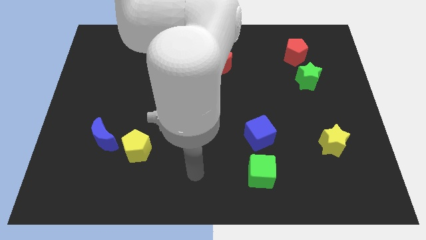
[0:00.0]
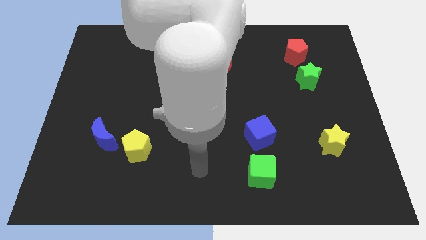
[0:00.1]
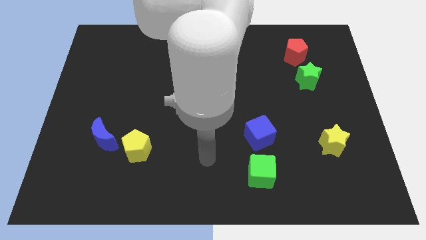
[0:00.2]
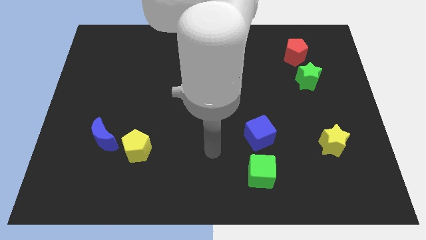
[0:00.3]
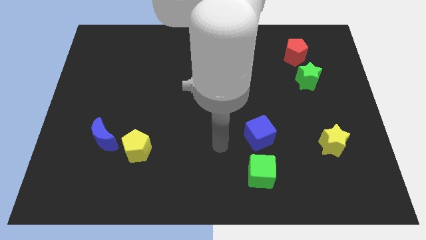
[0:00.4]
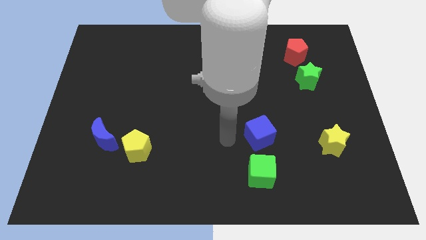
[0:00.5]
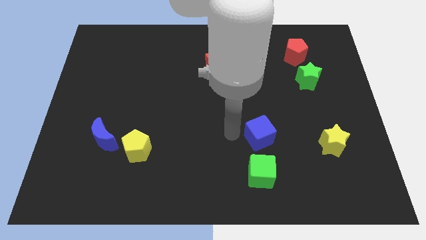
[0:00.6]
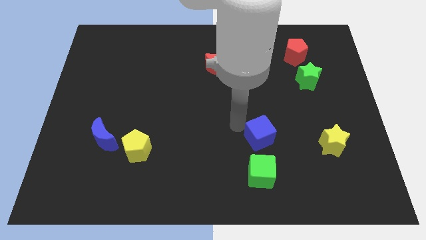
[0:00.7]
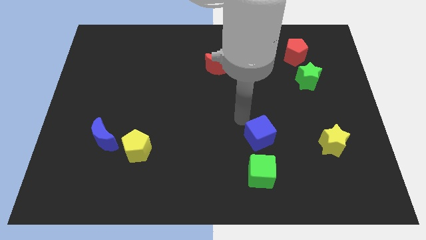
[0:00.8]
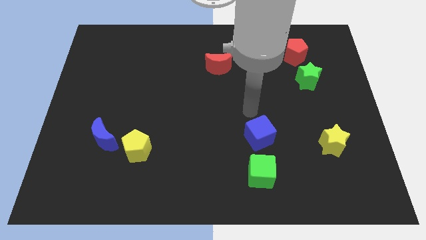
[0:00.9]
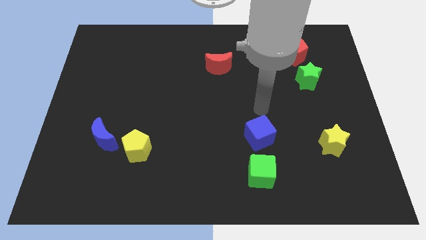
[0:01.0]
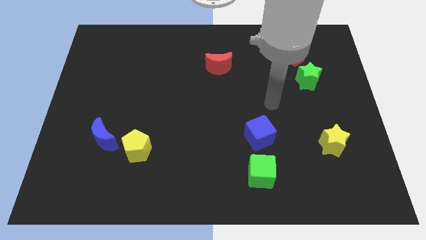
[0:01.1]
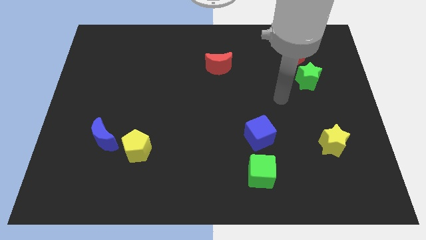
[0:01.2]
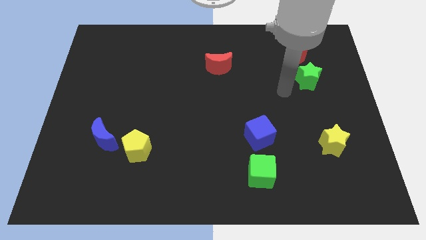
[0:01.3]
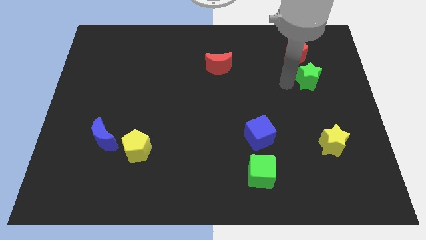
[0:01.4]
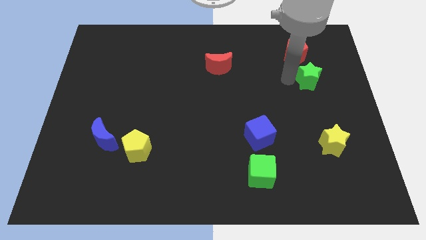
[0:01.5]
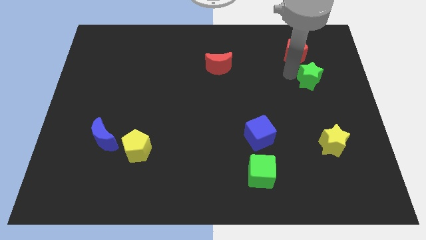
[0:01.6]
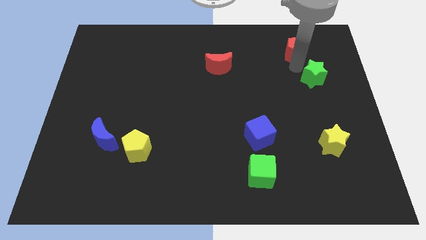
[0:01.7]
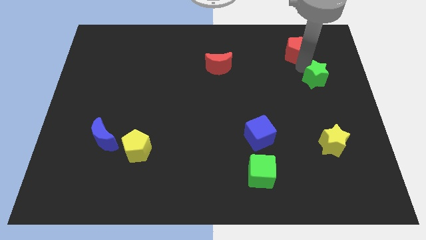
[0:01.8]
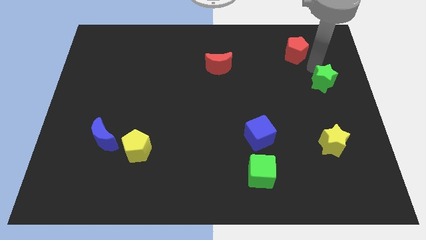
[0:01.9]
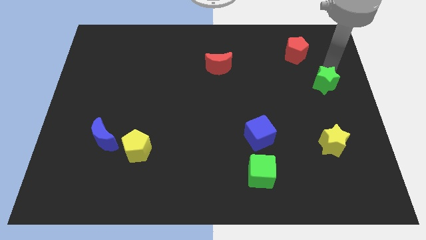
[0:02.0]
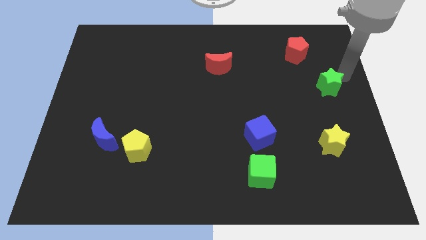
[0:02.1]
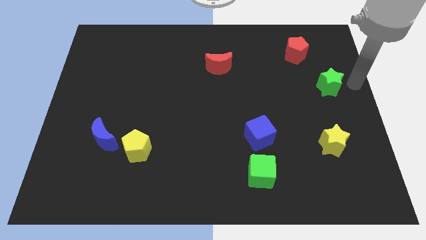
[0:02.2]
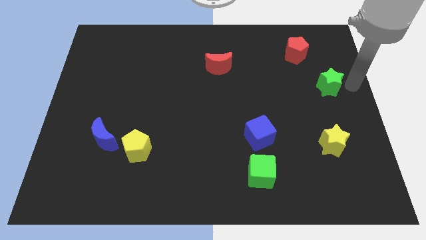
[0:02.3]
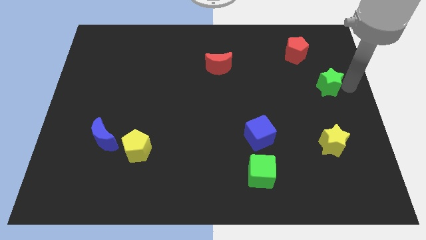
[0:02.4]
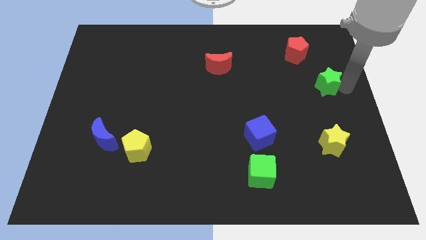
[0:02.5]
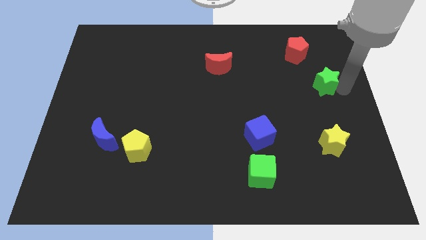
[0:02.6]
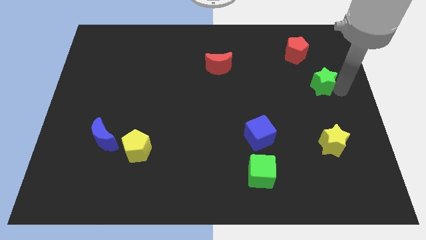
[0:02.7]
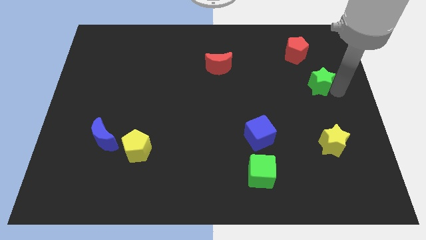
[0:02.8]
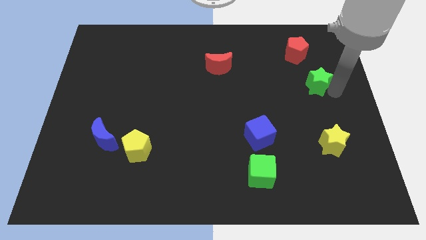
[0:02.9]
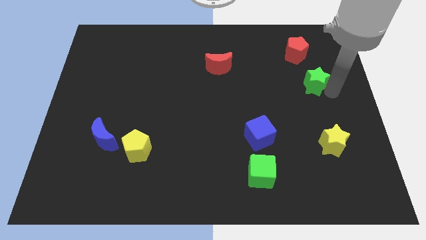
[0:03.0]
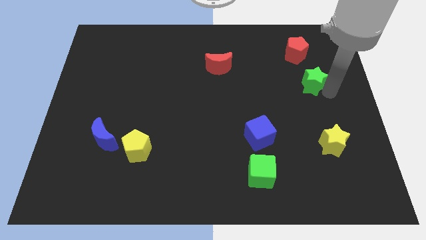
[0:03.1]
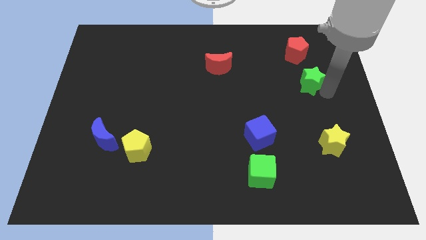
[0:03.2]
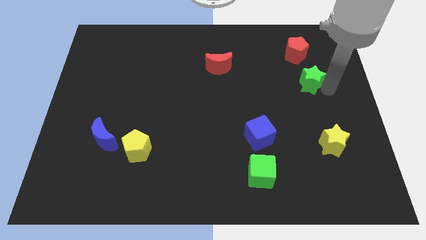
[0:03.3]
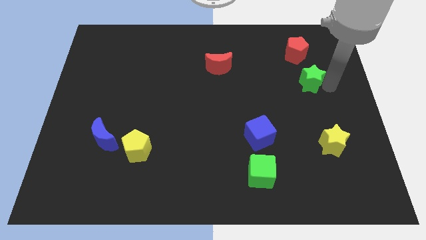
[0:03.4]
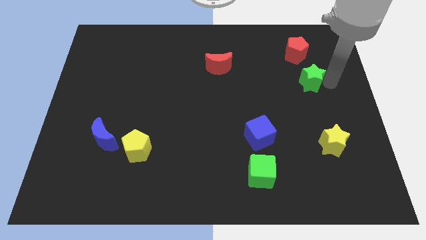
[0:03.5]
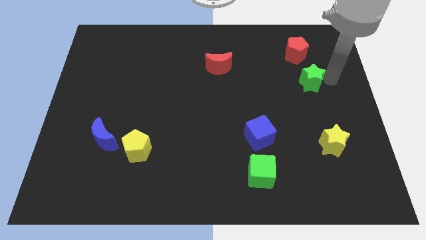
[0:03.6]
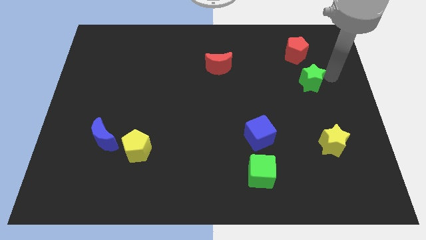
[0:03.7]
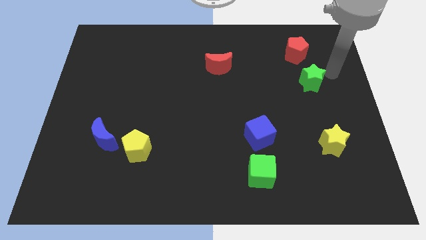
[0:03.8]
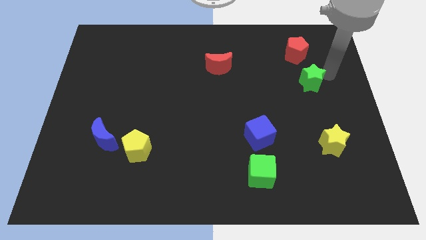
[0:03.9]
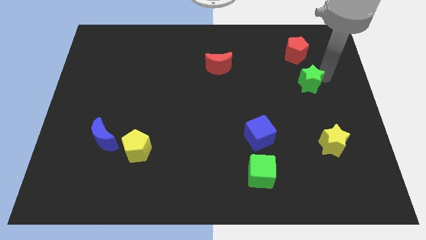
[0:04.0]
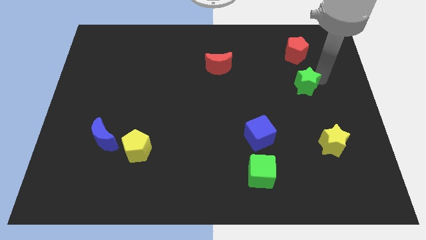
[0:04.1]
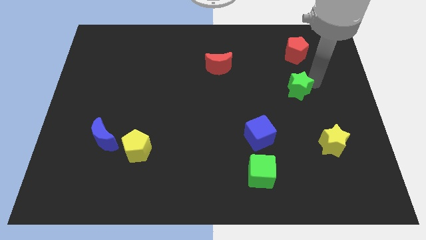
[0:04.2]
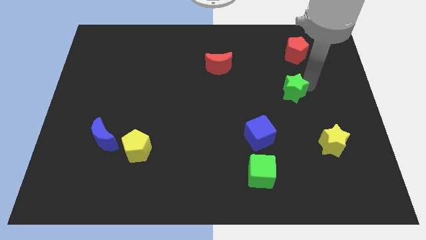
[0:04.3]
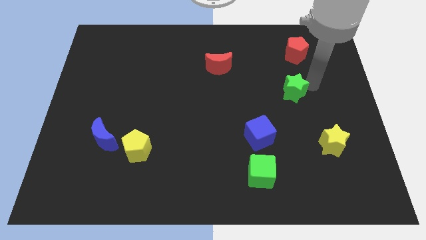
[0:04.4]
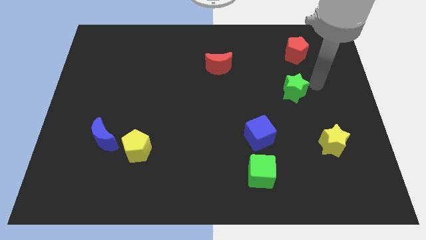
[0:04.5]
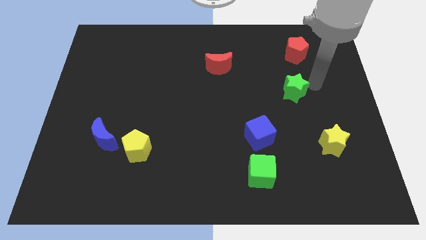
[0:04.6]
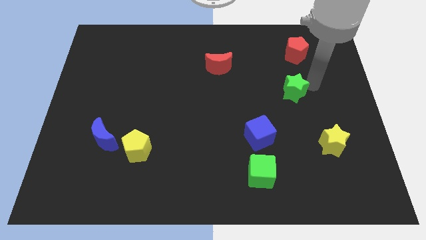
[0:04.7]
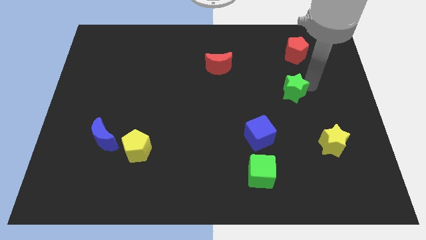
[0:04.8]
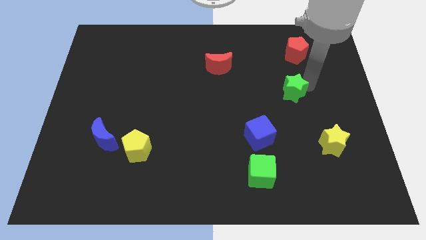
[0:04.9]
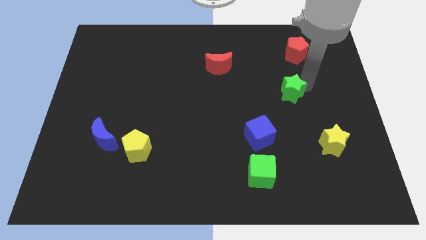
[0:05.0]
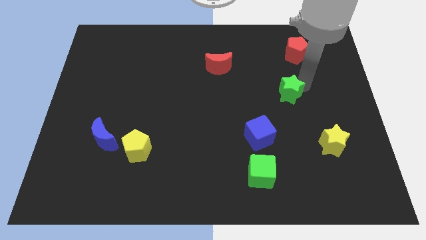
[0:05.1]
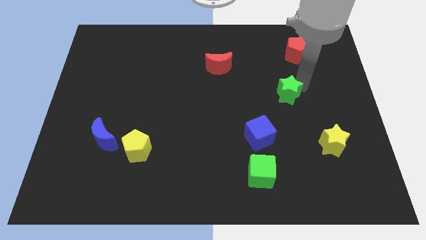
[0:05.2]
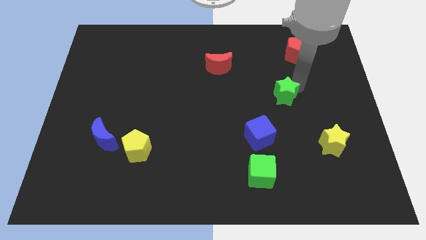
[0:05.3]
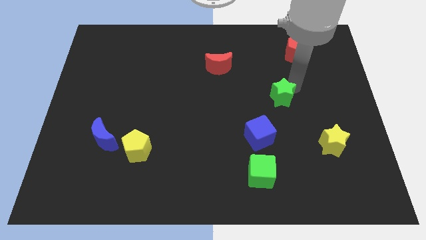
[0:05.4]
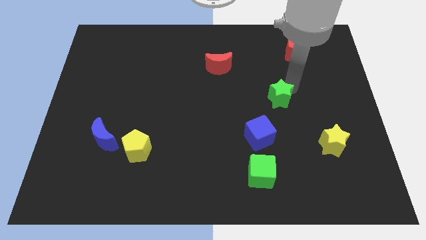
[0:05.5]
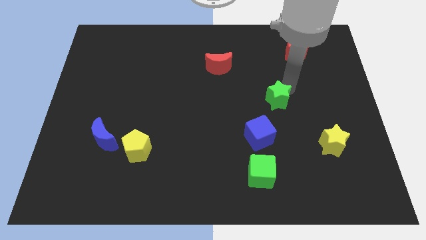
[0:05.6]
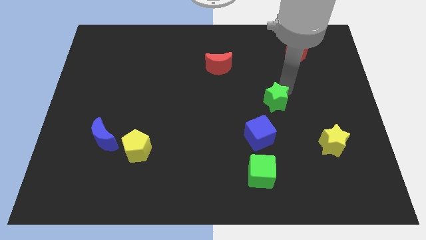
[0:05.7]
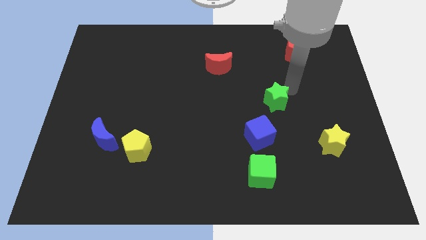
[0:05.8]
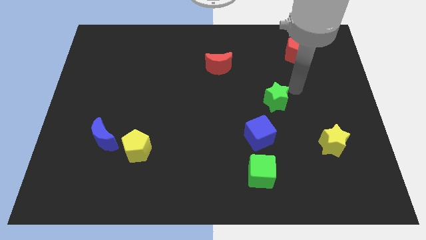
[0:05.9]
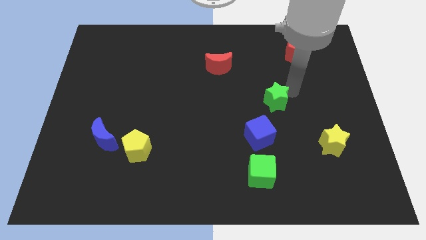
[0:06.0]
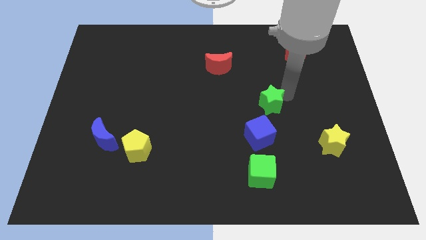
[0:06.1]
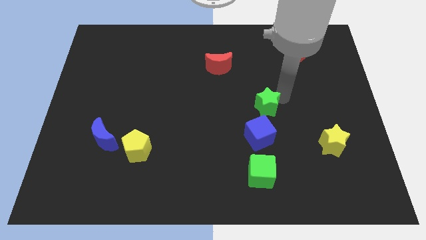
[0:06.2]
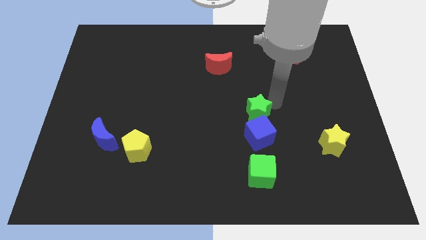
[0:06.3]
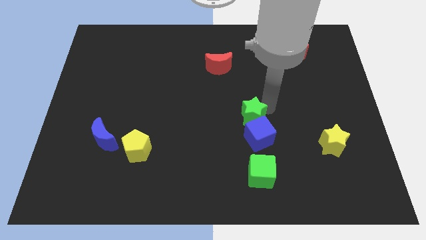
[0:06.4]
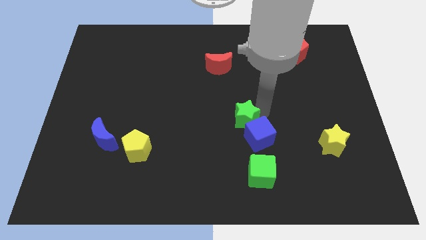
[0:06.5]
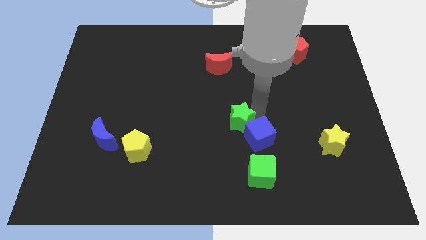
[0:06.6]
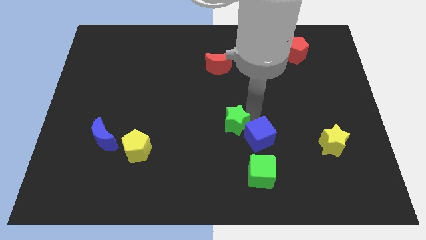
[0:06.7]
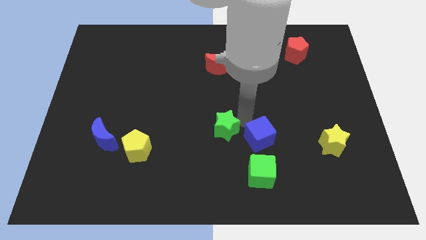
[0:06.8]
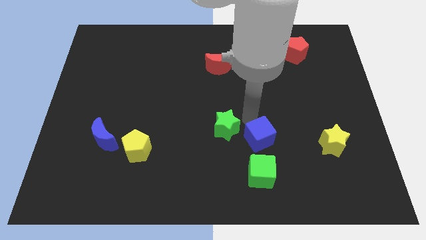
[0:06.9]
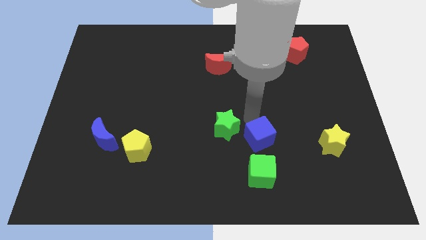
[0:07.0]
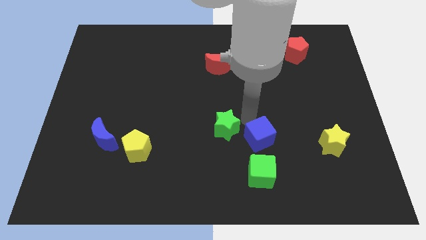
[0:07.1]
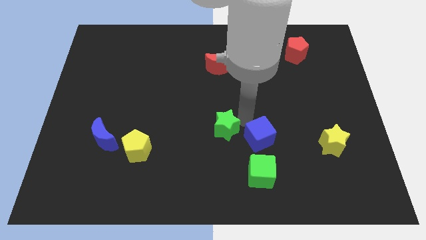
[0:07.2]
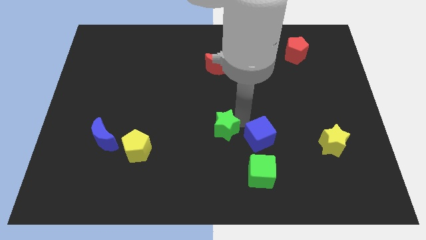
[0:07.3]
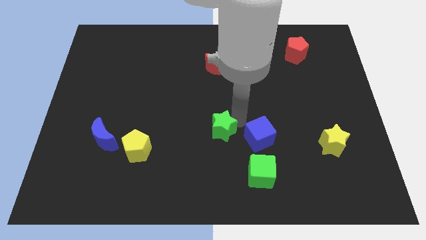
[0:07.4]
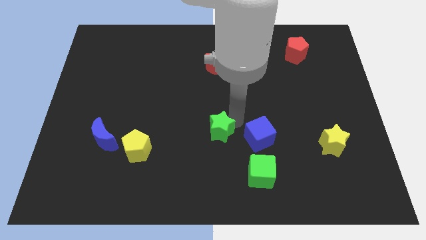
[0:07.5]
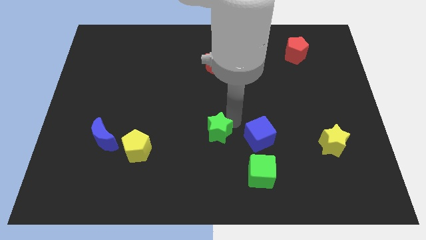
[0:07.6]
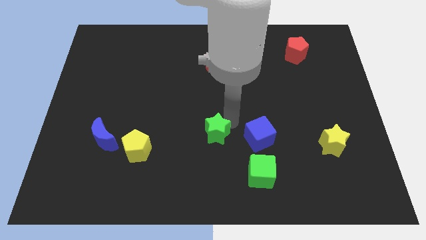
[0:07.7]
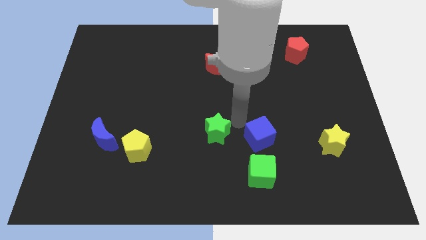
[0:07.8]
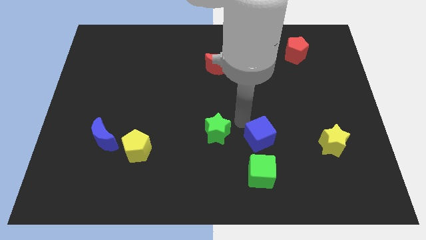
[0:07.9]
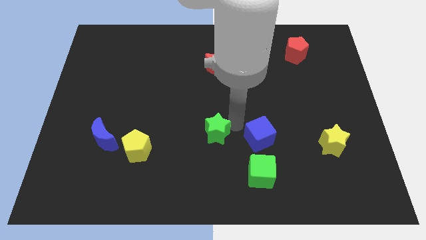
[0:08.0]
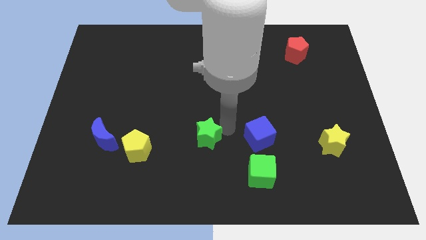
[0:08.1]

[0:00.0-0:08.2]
move the green star to the right side of the yellow pentagon
